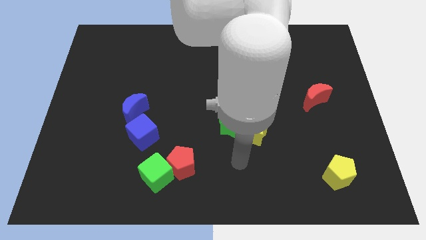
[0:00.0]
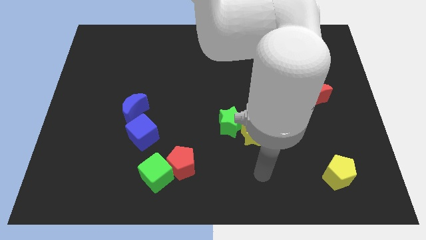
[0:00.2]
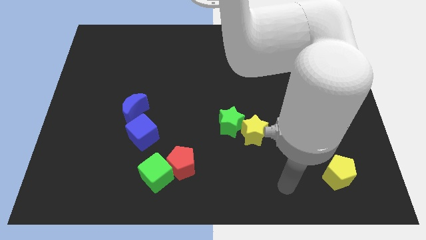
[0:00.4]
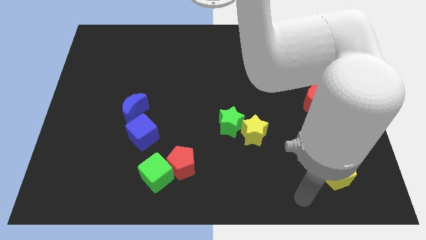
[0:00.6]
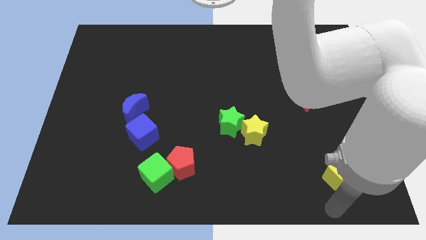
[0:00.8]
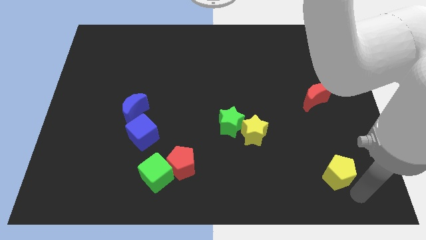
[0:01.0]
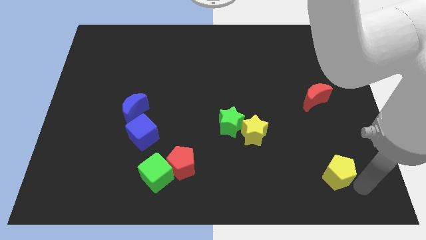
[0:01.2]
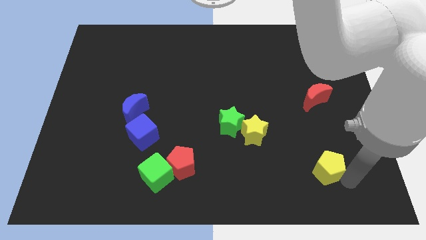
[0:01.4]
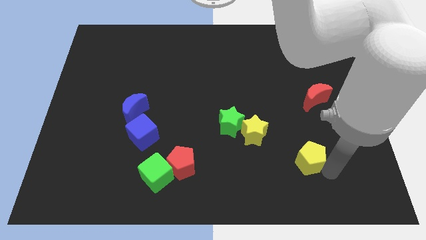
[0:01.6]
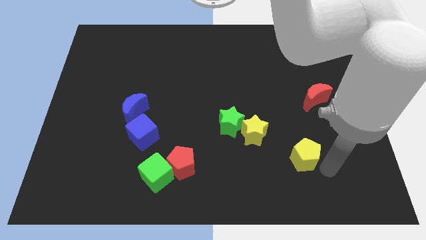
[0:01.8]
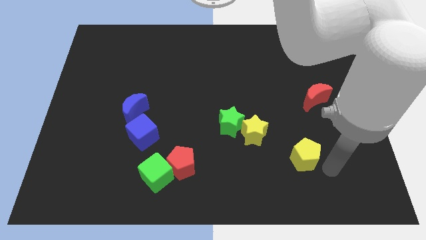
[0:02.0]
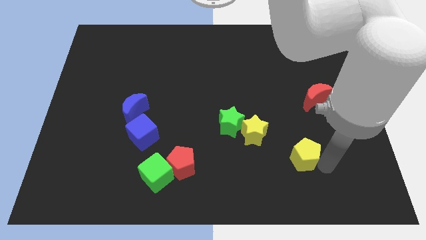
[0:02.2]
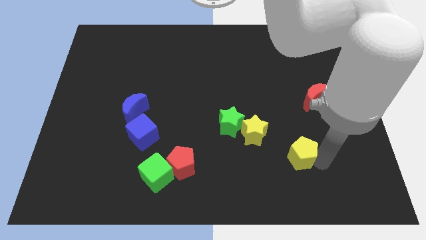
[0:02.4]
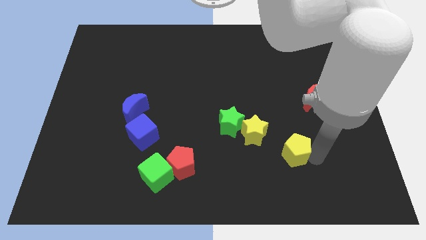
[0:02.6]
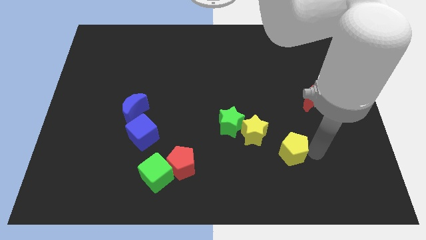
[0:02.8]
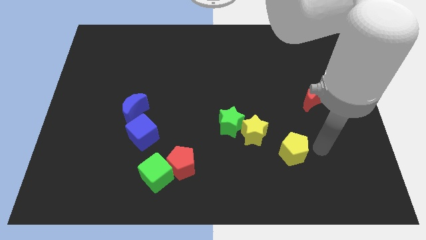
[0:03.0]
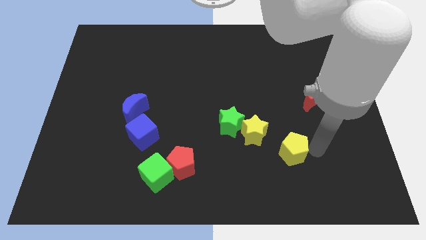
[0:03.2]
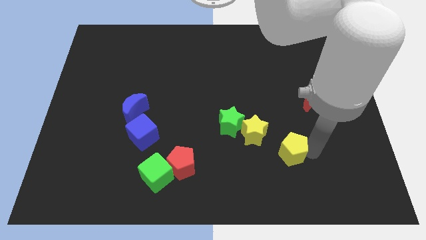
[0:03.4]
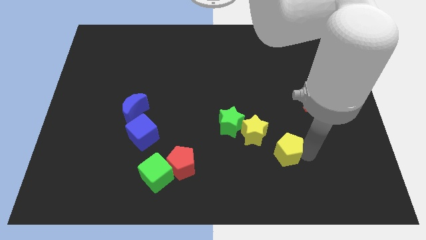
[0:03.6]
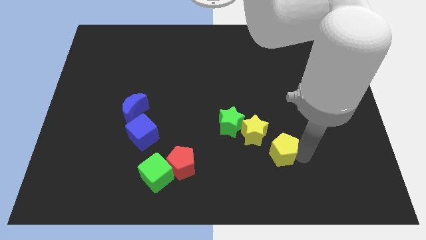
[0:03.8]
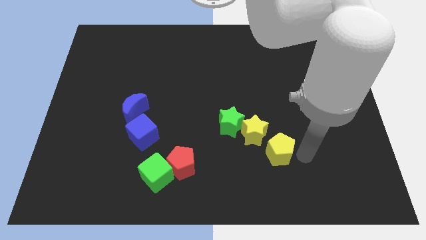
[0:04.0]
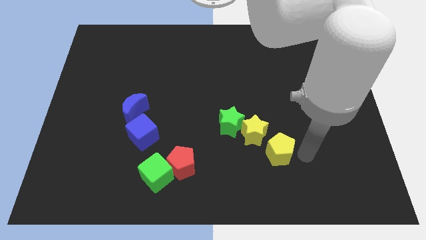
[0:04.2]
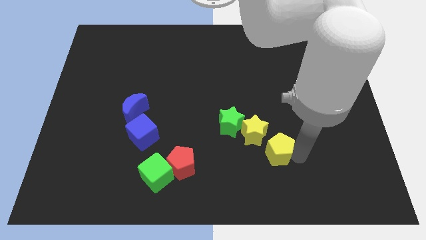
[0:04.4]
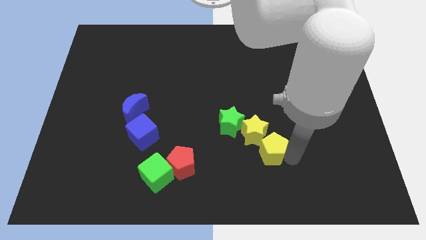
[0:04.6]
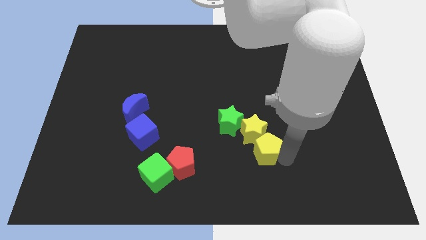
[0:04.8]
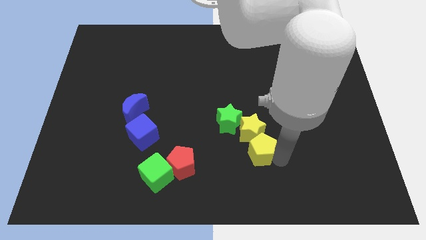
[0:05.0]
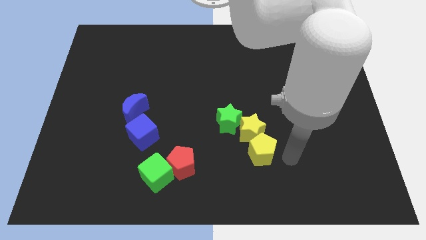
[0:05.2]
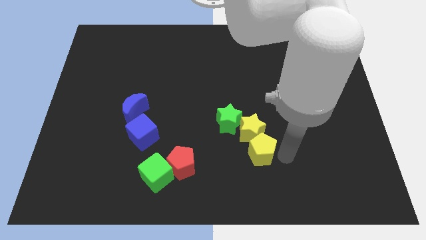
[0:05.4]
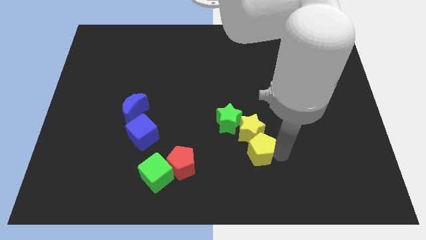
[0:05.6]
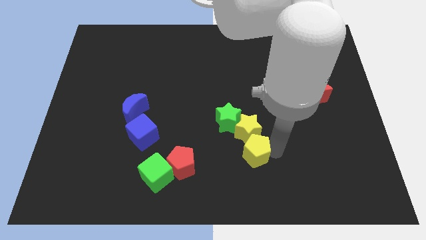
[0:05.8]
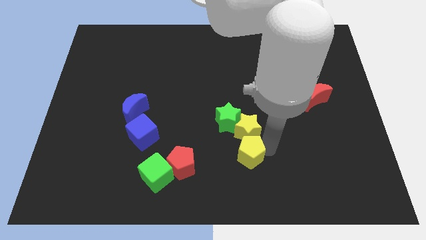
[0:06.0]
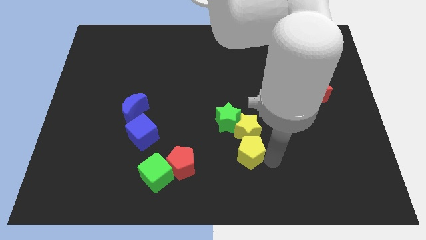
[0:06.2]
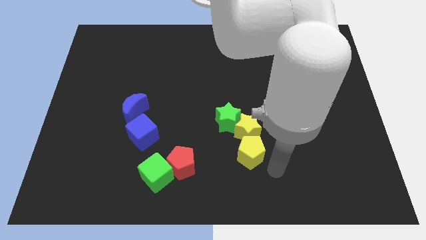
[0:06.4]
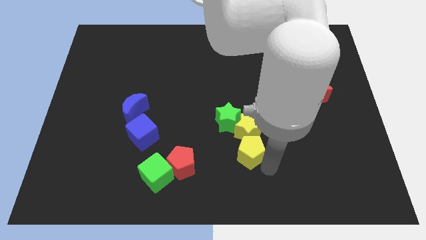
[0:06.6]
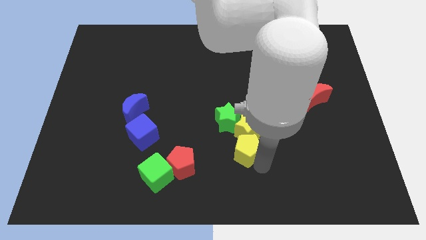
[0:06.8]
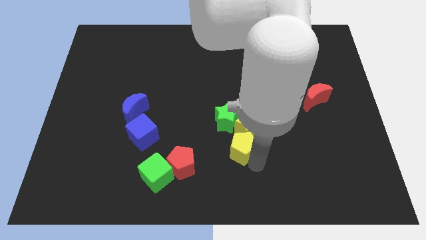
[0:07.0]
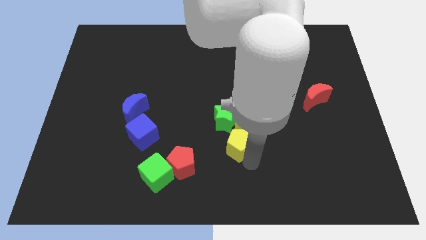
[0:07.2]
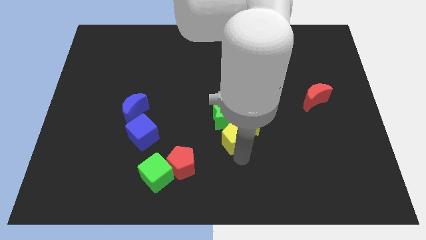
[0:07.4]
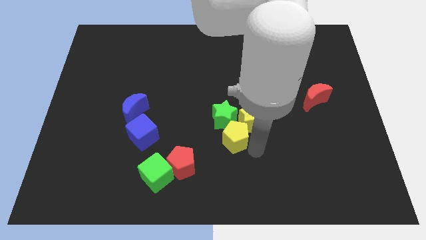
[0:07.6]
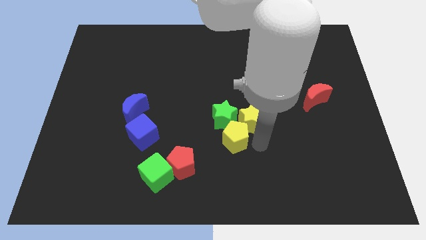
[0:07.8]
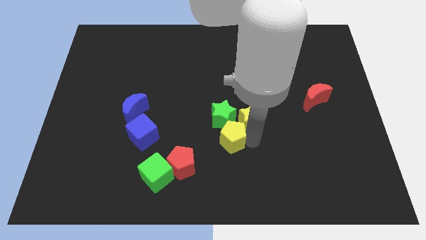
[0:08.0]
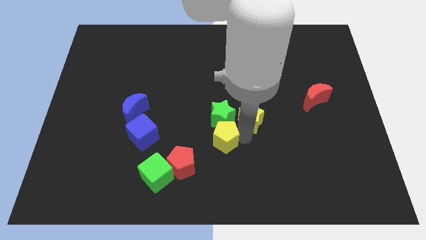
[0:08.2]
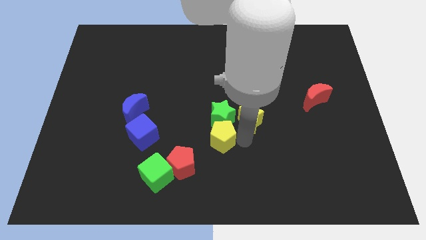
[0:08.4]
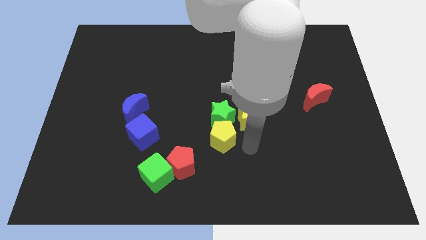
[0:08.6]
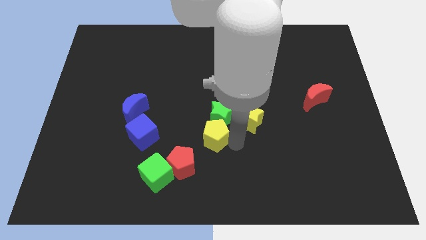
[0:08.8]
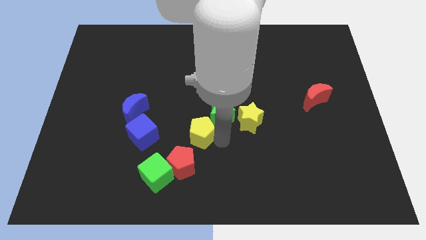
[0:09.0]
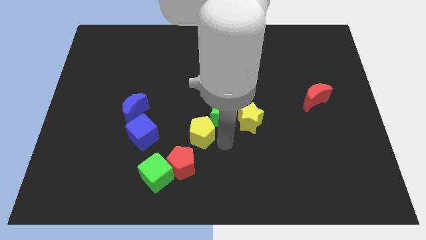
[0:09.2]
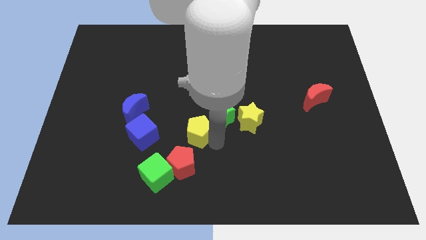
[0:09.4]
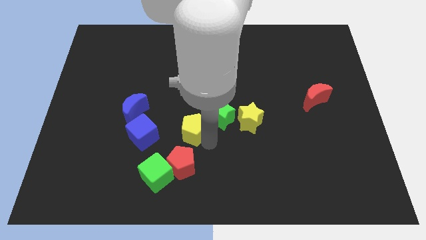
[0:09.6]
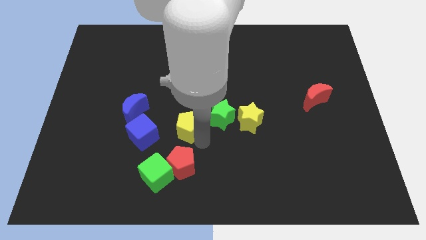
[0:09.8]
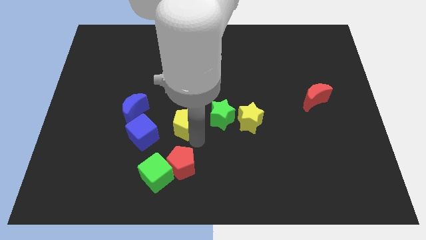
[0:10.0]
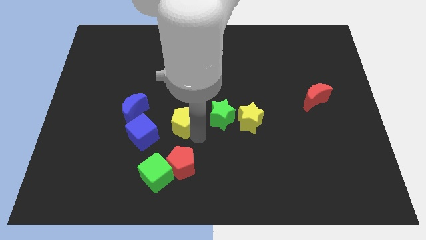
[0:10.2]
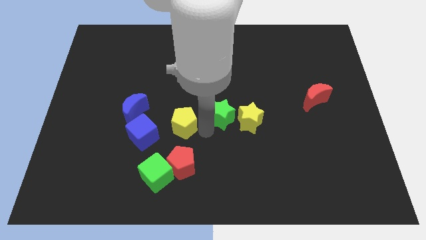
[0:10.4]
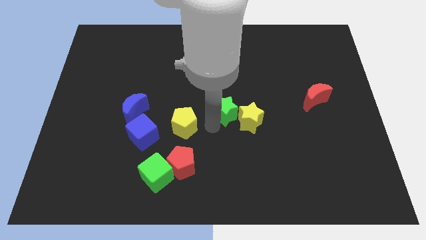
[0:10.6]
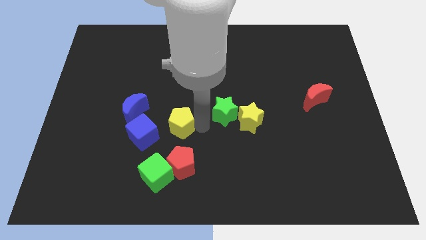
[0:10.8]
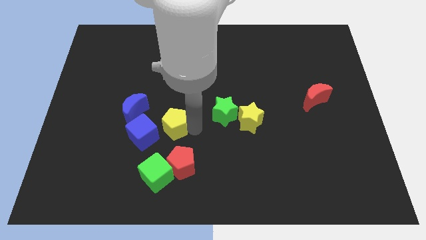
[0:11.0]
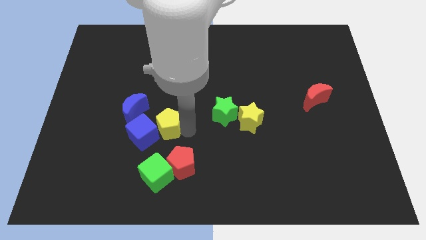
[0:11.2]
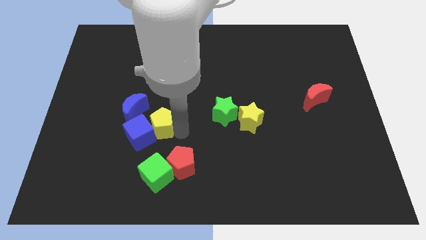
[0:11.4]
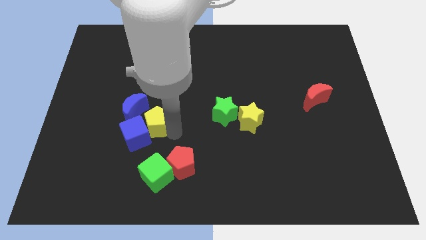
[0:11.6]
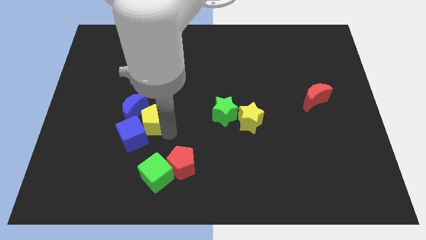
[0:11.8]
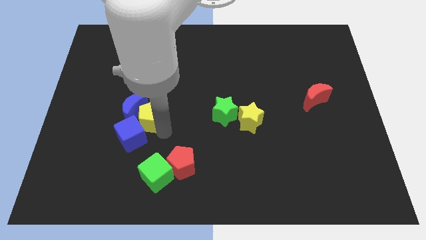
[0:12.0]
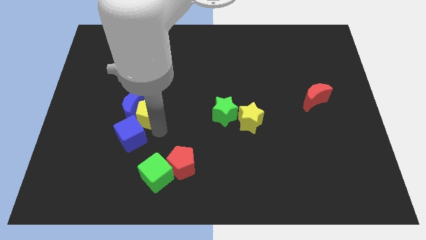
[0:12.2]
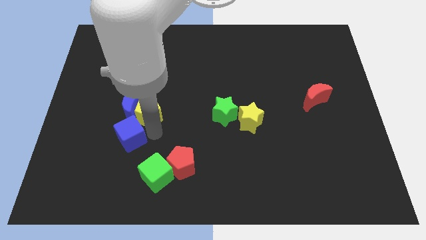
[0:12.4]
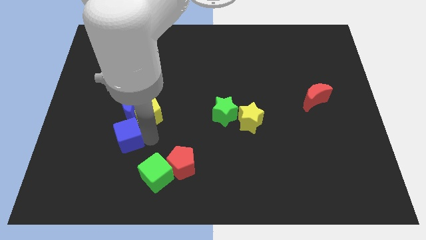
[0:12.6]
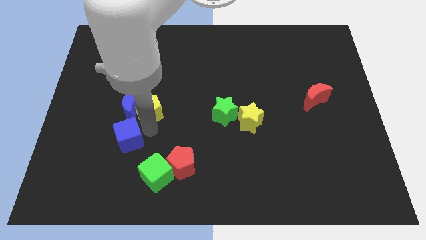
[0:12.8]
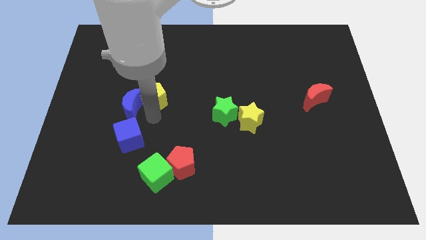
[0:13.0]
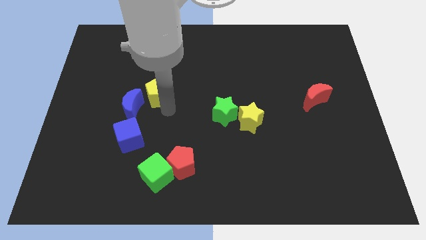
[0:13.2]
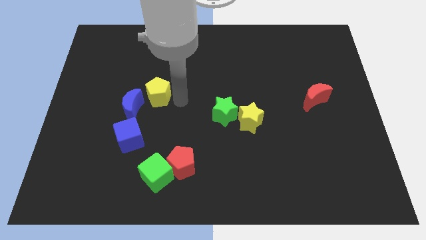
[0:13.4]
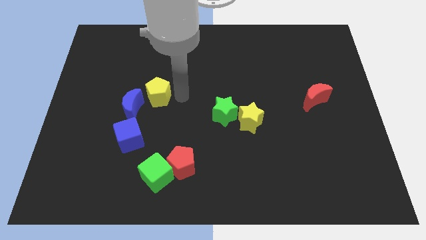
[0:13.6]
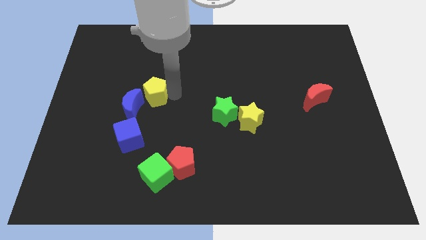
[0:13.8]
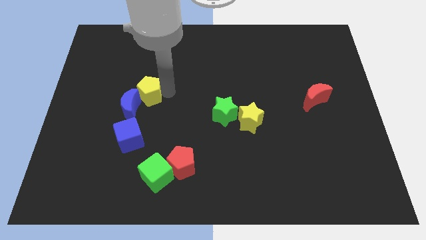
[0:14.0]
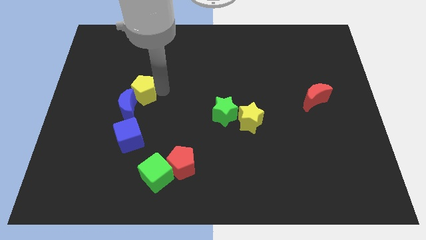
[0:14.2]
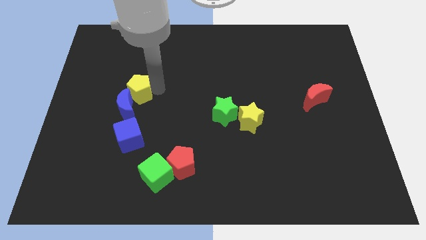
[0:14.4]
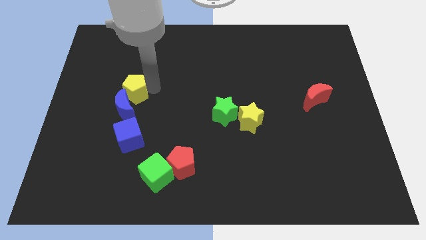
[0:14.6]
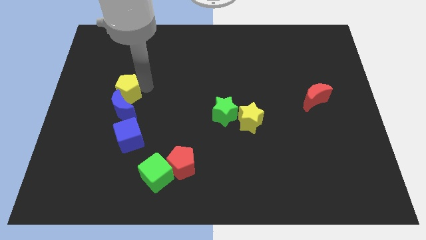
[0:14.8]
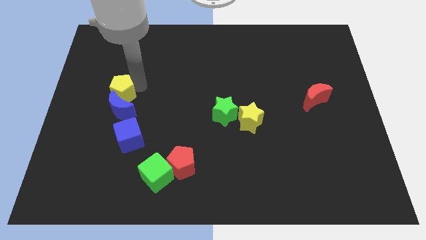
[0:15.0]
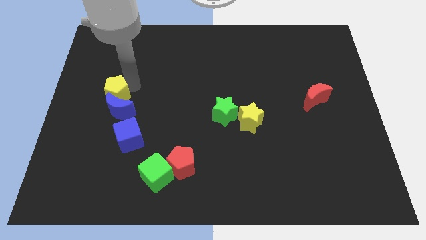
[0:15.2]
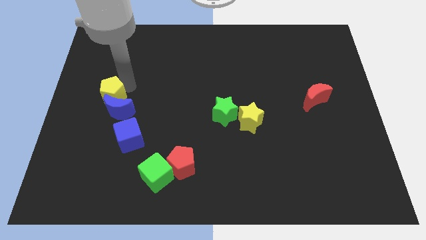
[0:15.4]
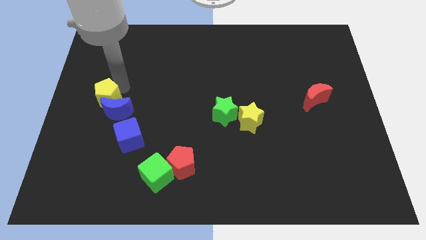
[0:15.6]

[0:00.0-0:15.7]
push the yellow pentagon to the left side

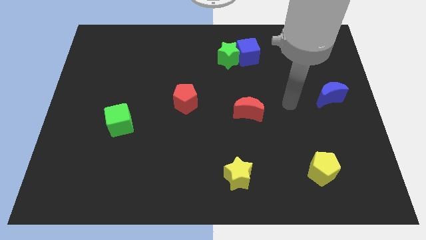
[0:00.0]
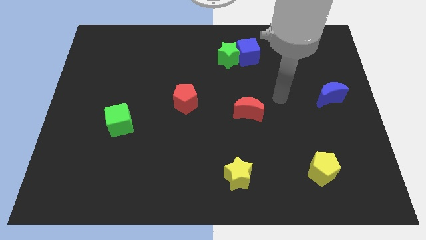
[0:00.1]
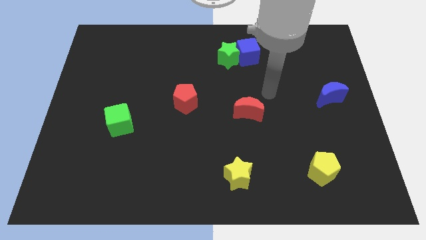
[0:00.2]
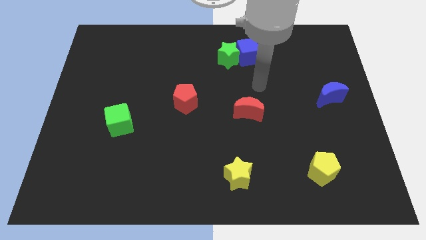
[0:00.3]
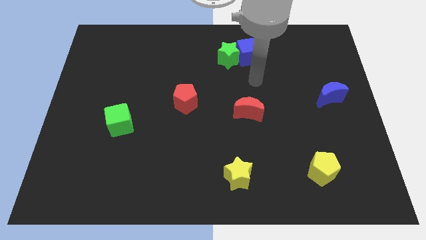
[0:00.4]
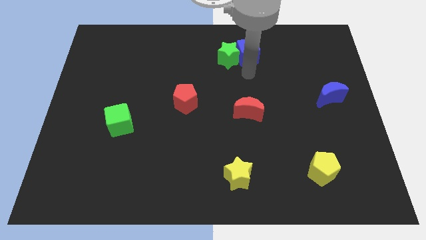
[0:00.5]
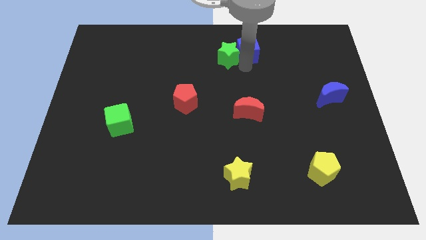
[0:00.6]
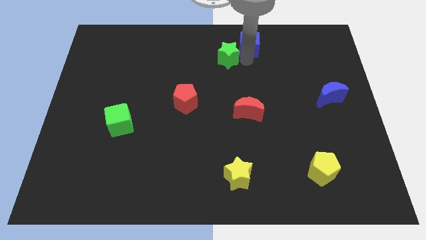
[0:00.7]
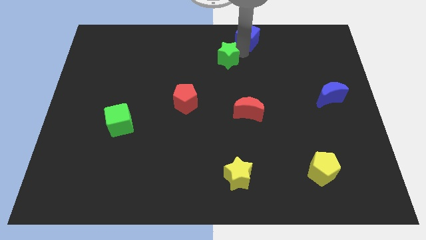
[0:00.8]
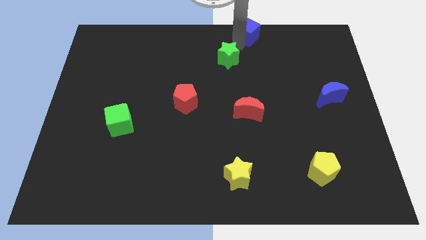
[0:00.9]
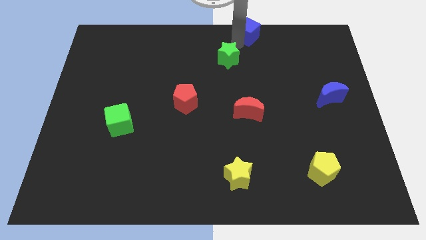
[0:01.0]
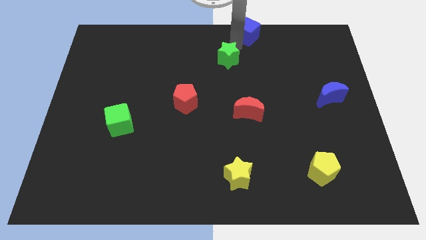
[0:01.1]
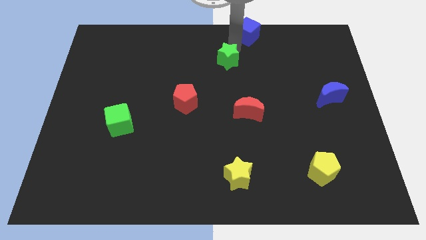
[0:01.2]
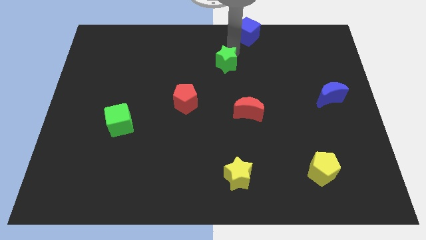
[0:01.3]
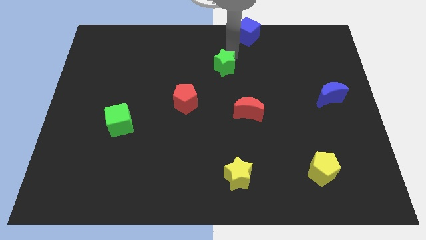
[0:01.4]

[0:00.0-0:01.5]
move the green star to the center
